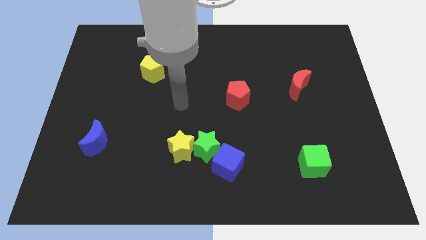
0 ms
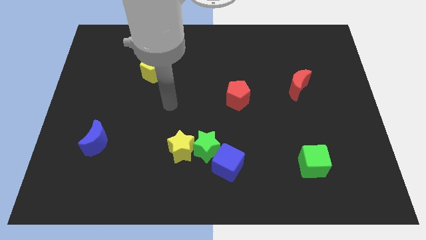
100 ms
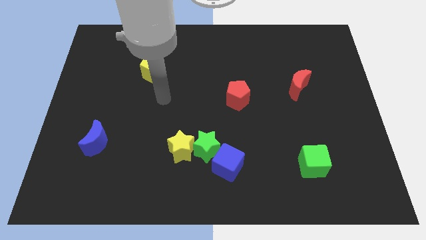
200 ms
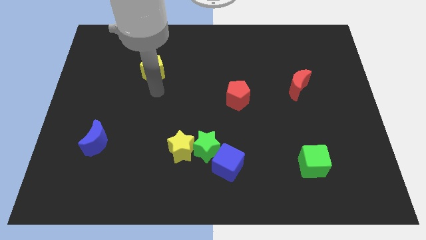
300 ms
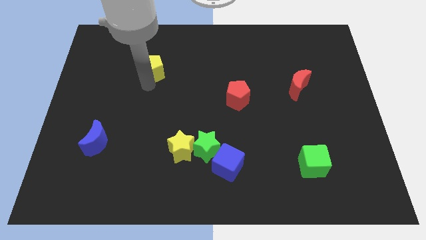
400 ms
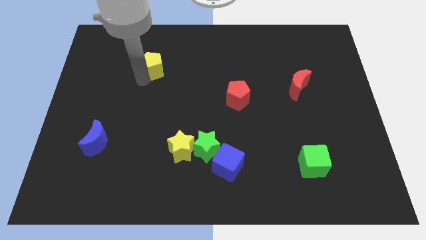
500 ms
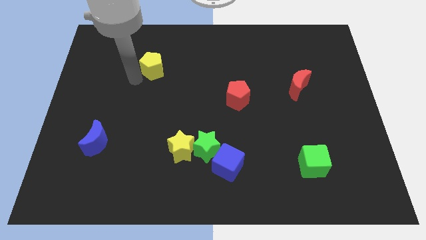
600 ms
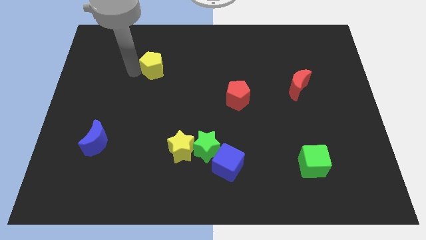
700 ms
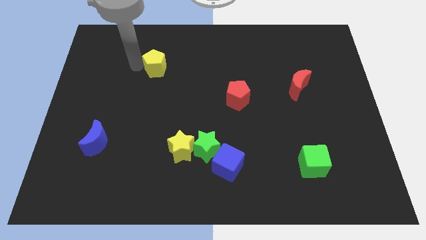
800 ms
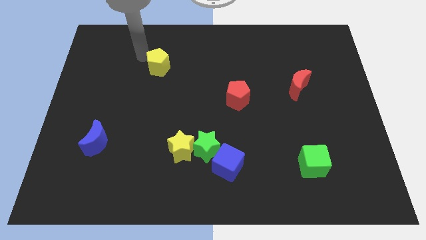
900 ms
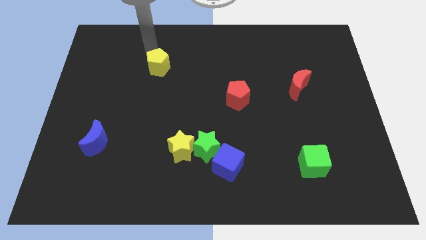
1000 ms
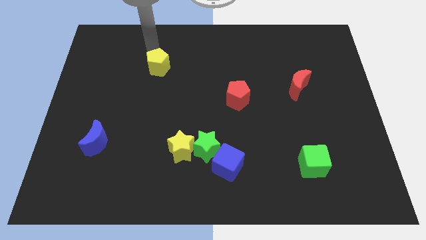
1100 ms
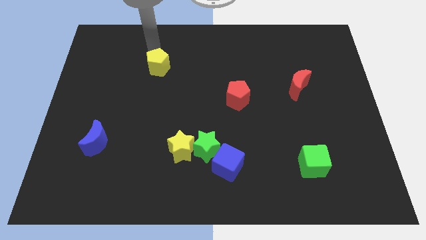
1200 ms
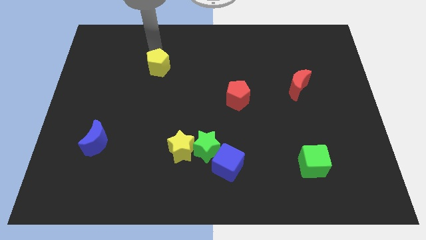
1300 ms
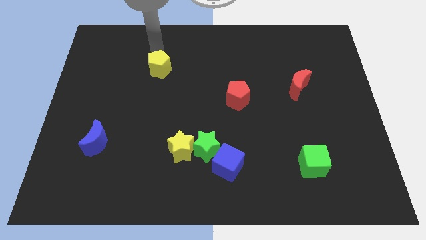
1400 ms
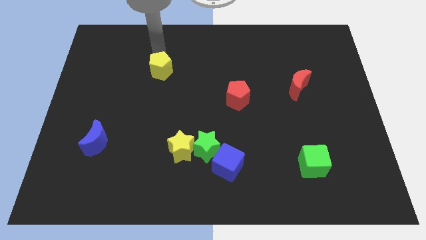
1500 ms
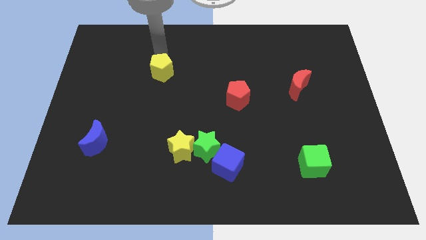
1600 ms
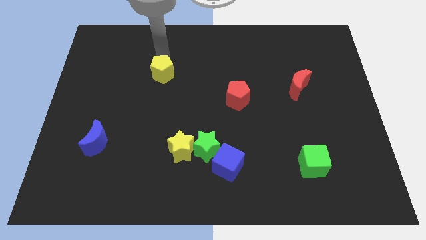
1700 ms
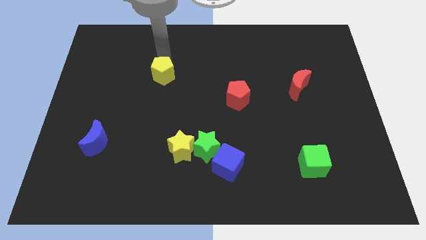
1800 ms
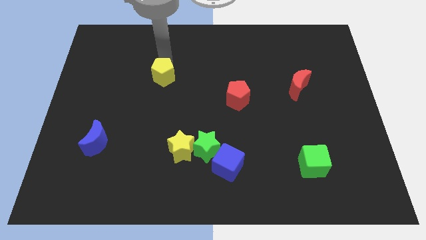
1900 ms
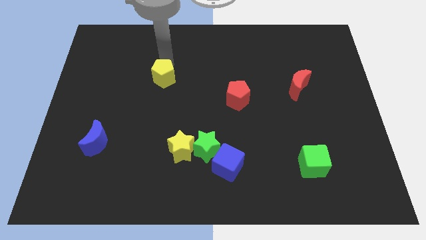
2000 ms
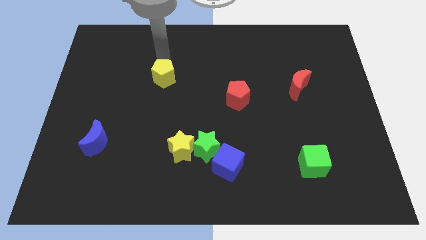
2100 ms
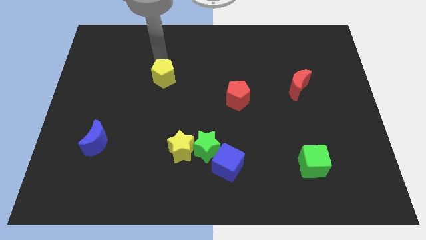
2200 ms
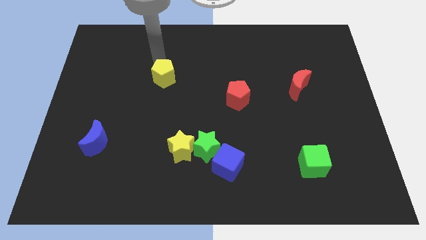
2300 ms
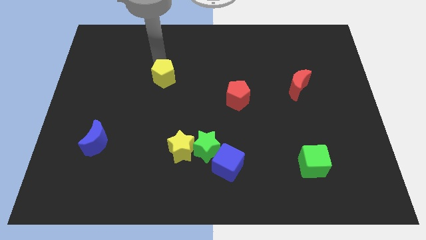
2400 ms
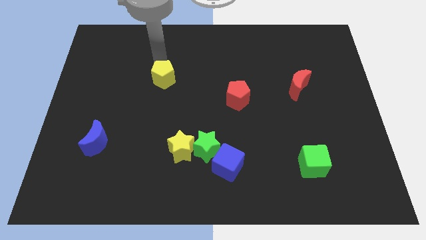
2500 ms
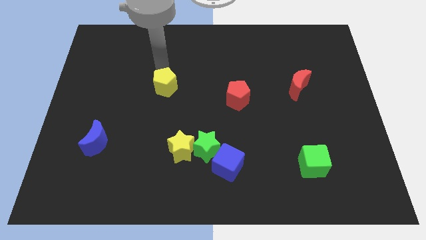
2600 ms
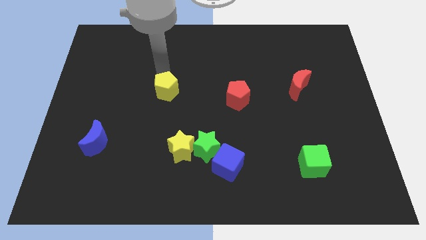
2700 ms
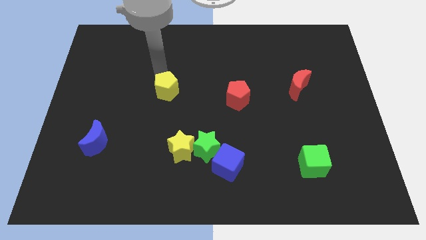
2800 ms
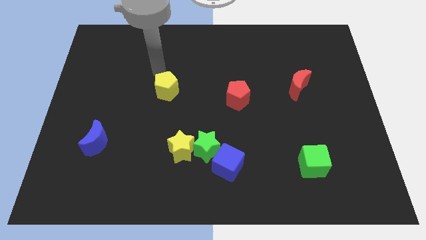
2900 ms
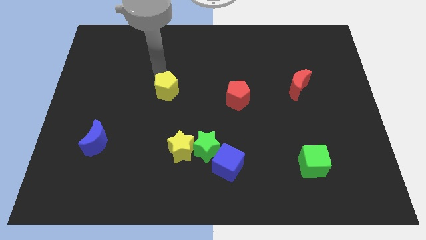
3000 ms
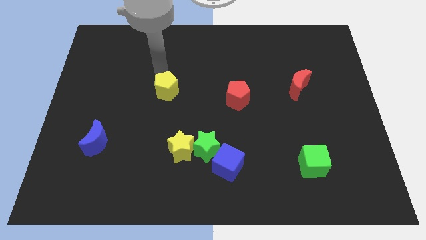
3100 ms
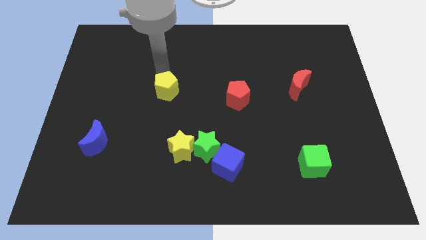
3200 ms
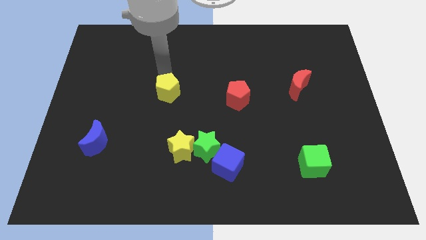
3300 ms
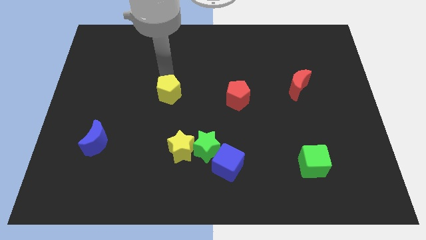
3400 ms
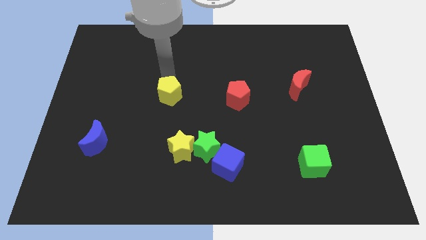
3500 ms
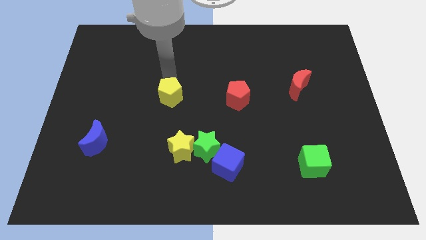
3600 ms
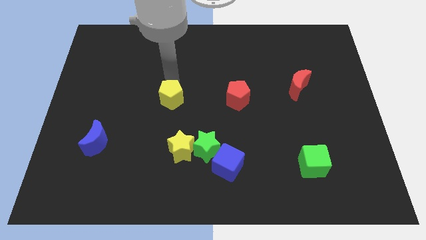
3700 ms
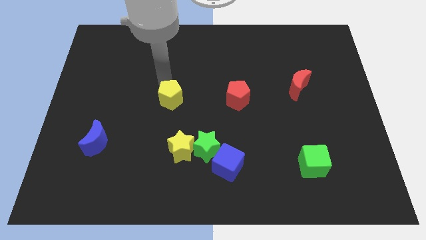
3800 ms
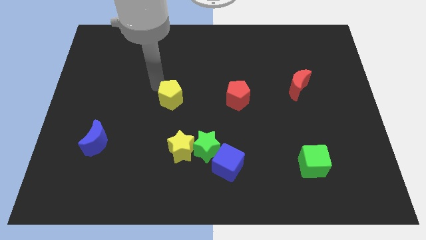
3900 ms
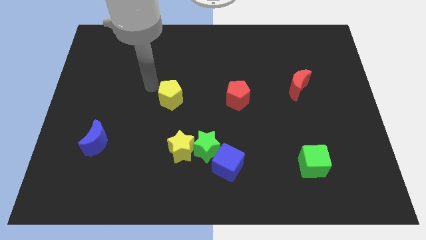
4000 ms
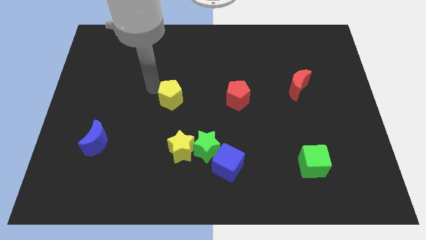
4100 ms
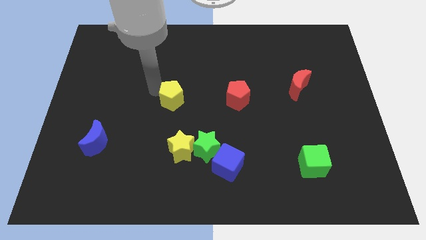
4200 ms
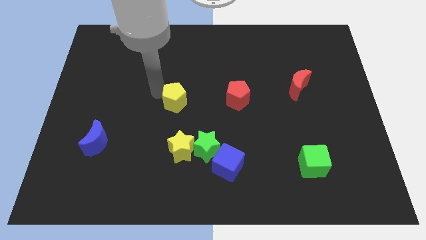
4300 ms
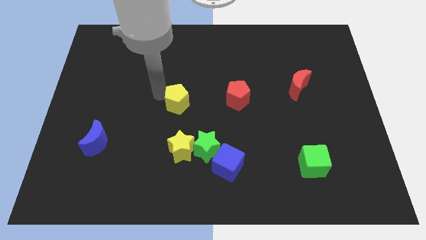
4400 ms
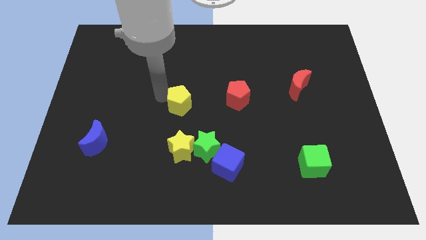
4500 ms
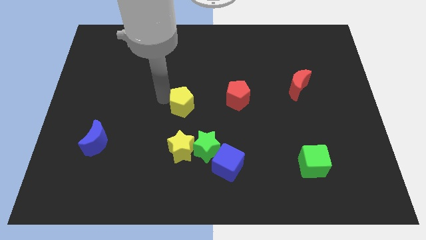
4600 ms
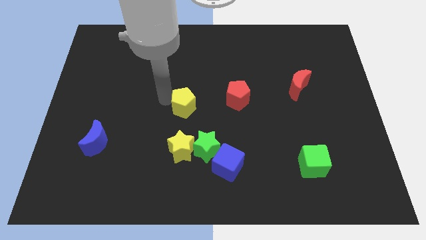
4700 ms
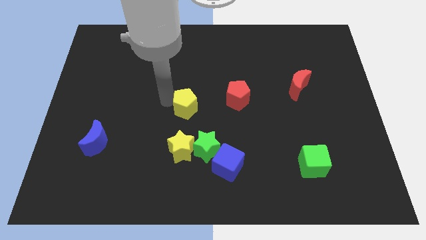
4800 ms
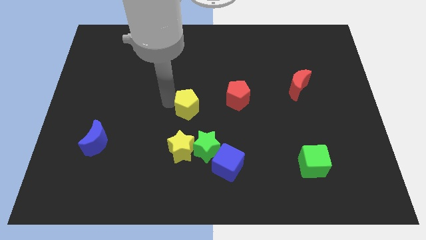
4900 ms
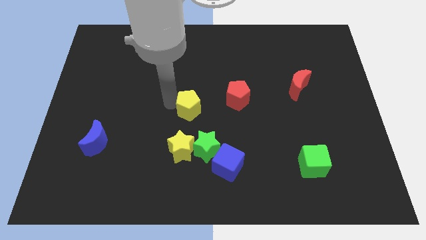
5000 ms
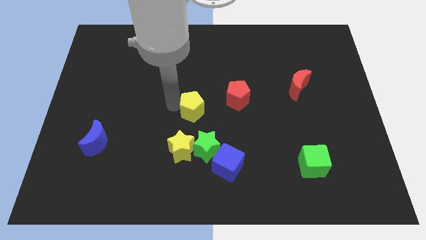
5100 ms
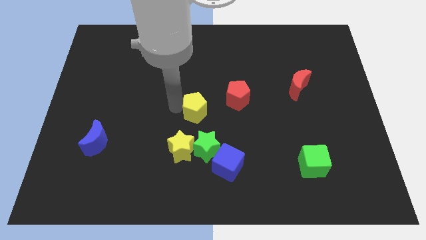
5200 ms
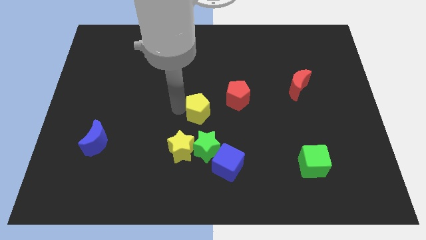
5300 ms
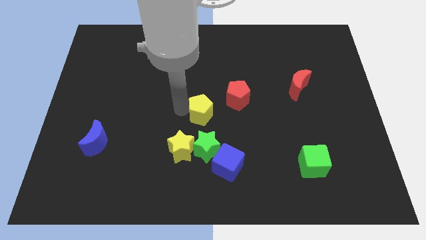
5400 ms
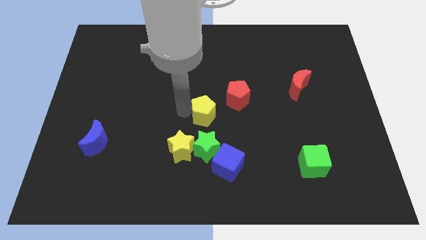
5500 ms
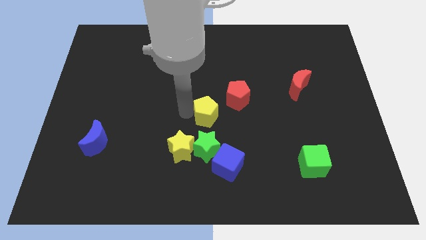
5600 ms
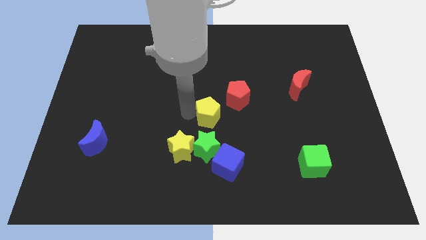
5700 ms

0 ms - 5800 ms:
move the yellow pentagon downwards and to the right diagonally

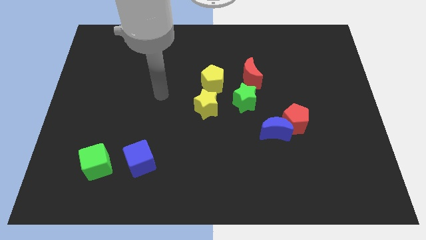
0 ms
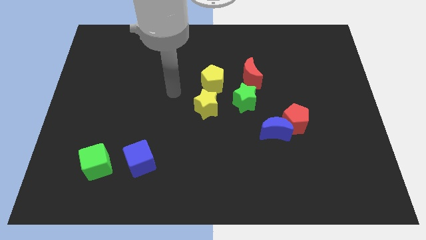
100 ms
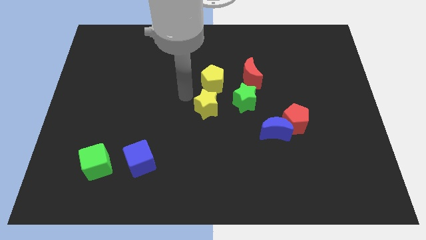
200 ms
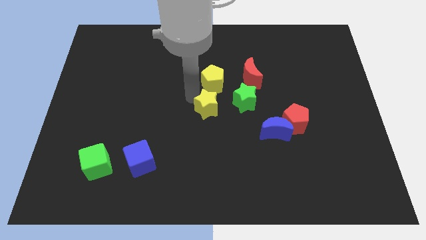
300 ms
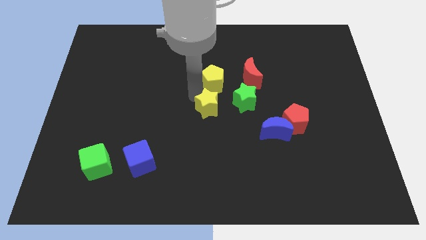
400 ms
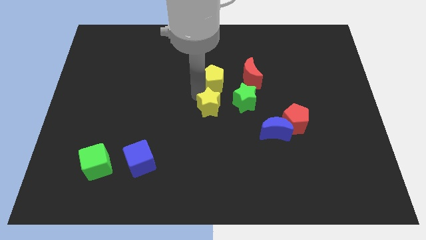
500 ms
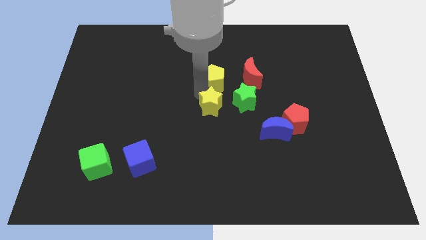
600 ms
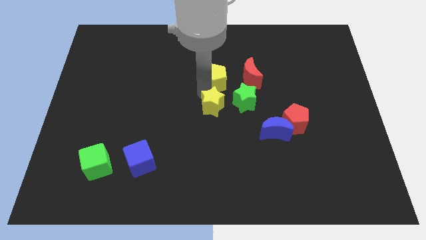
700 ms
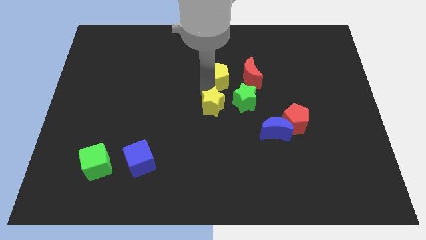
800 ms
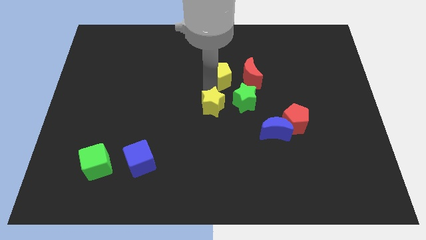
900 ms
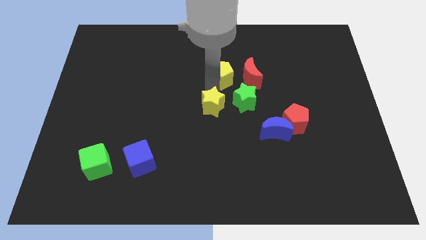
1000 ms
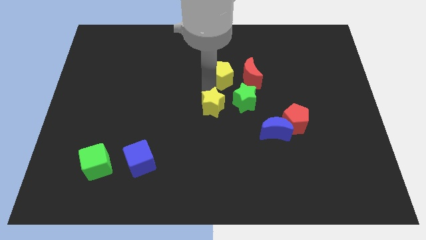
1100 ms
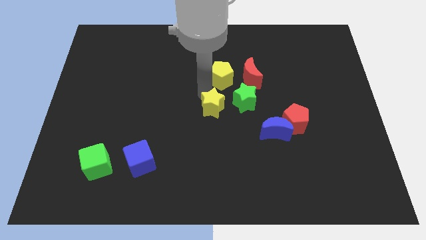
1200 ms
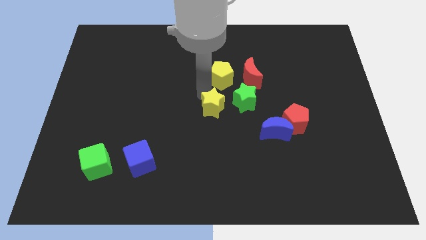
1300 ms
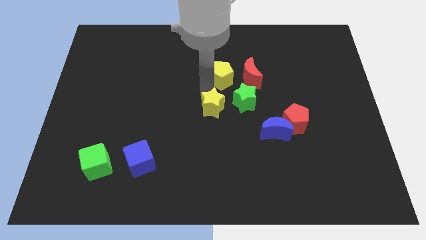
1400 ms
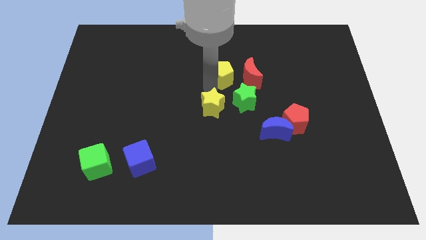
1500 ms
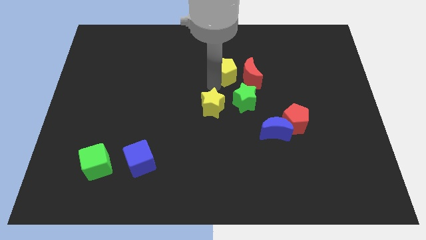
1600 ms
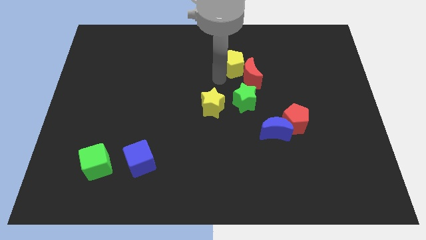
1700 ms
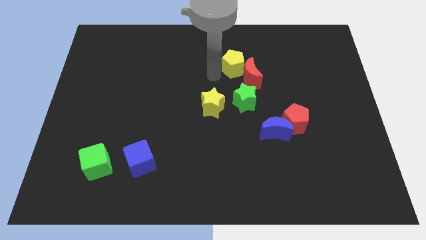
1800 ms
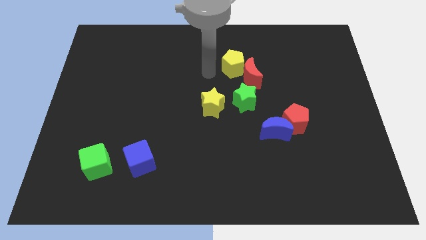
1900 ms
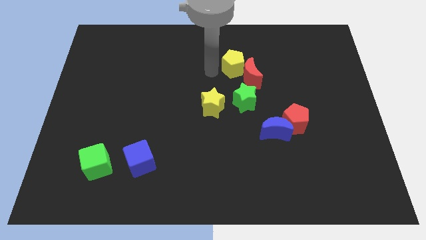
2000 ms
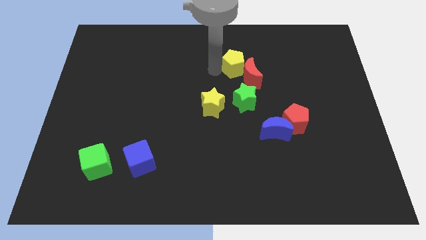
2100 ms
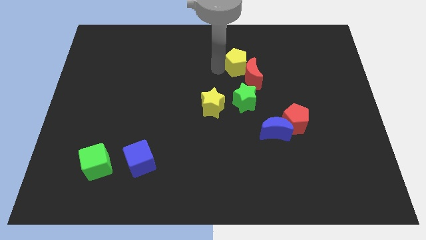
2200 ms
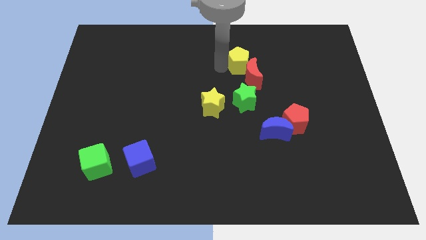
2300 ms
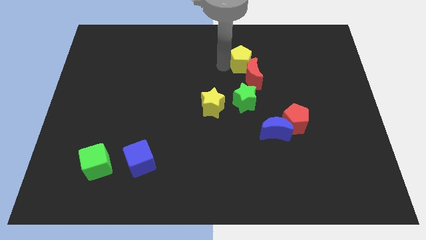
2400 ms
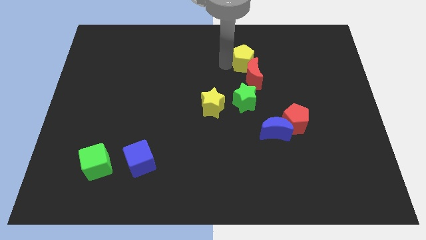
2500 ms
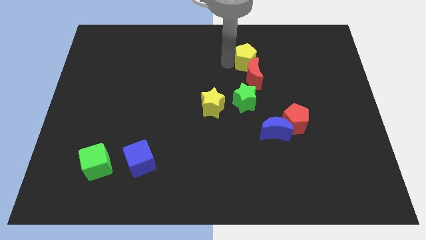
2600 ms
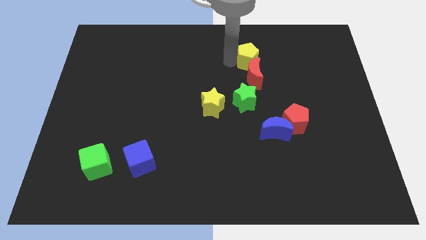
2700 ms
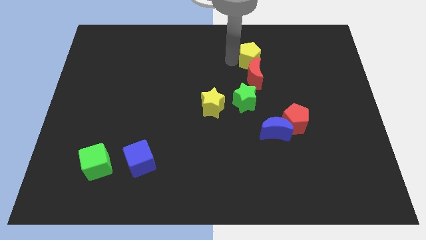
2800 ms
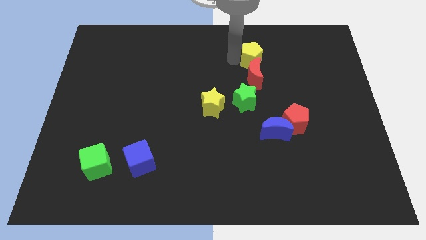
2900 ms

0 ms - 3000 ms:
slide the yellow pentagon a little to the right
